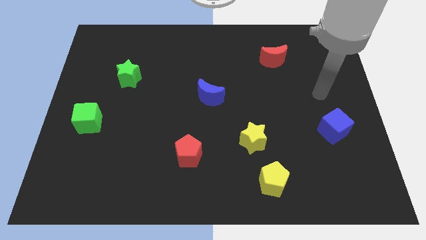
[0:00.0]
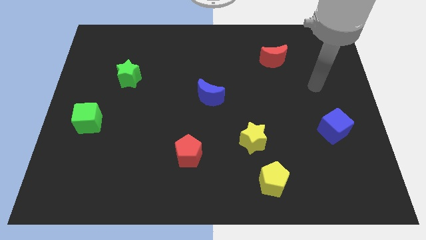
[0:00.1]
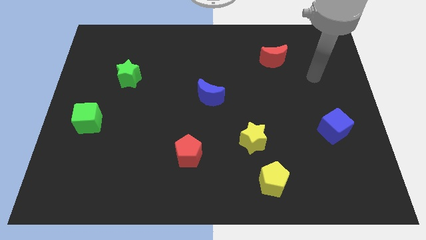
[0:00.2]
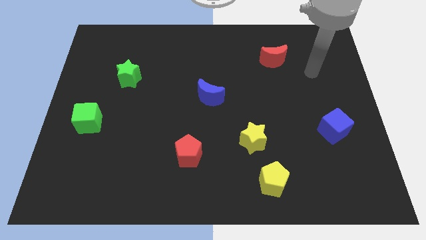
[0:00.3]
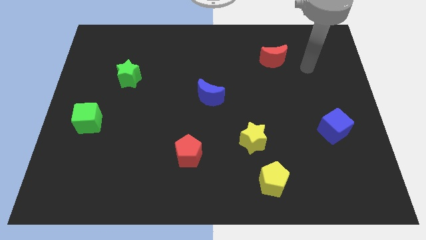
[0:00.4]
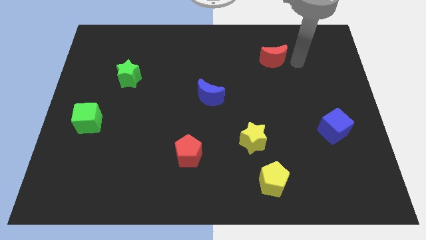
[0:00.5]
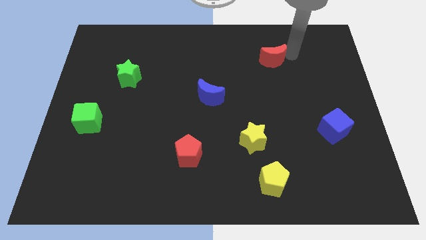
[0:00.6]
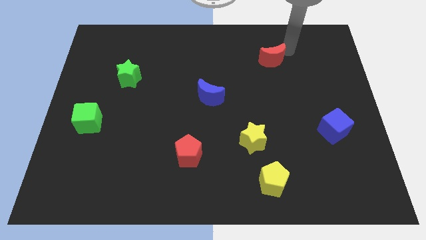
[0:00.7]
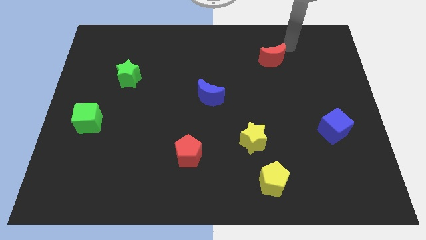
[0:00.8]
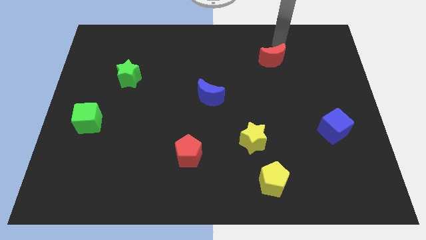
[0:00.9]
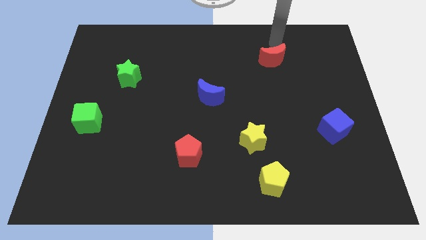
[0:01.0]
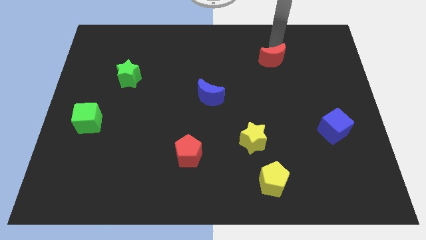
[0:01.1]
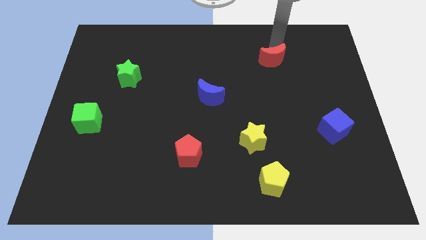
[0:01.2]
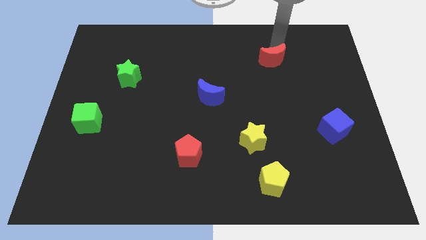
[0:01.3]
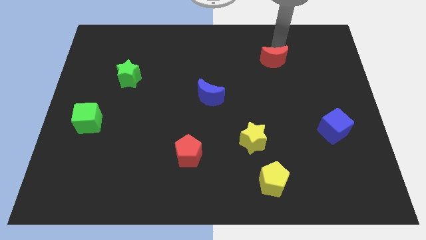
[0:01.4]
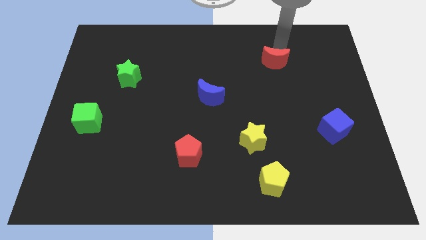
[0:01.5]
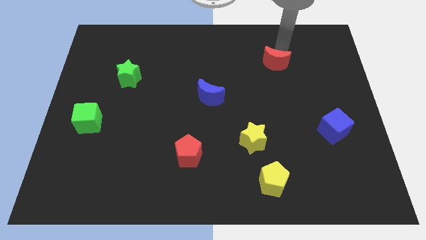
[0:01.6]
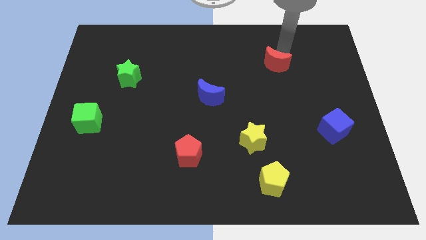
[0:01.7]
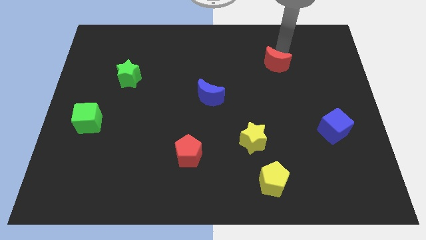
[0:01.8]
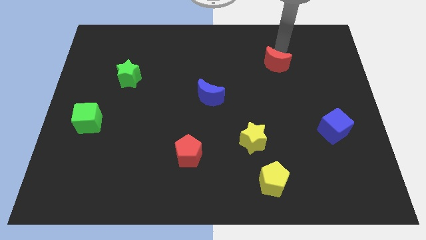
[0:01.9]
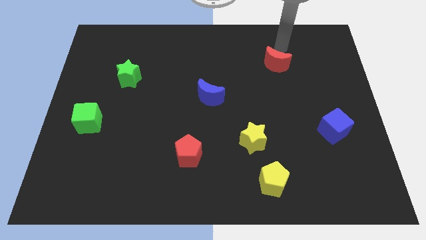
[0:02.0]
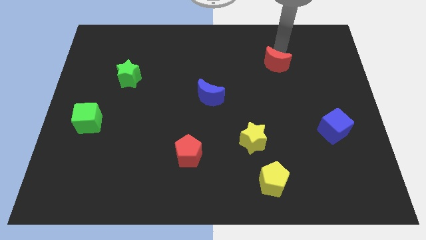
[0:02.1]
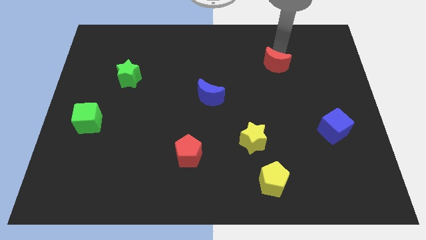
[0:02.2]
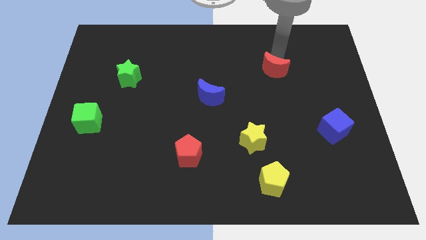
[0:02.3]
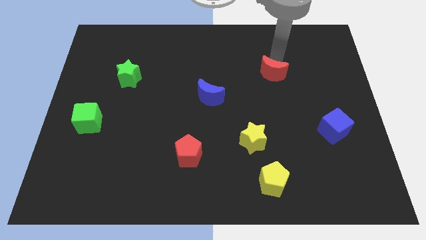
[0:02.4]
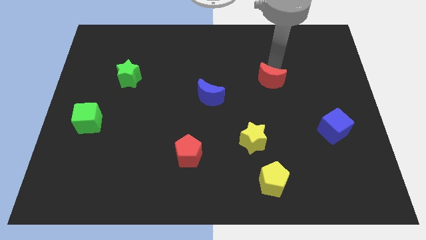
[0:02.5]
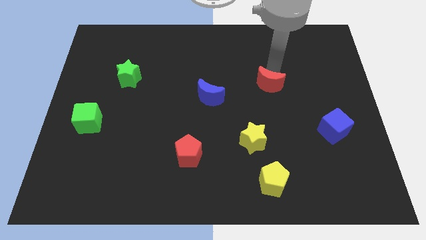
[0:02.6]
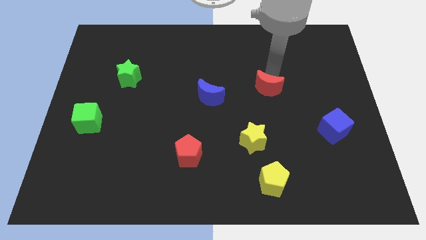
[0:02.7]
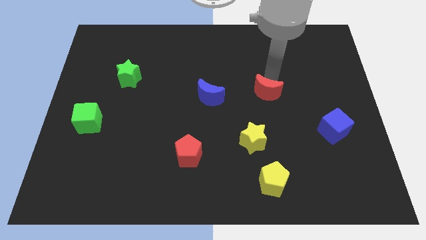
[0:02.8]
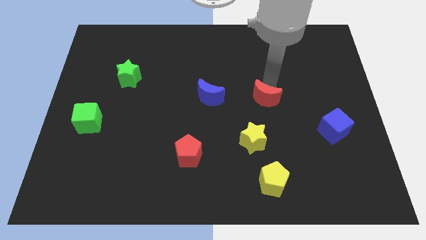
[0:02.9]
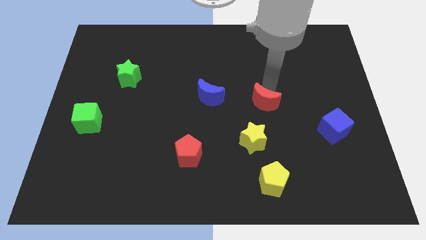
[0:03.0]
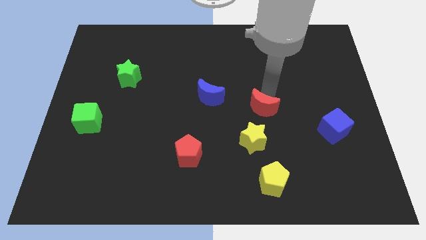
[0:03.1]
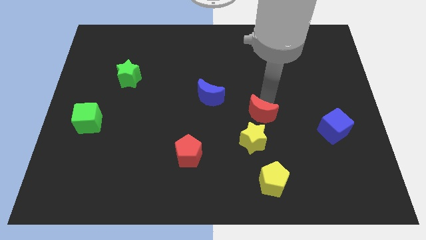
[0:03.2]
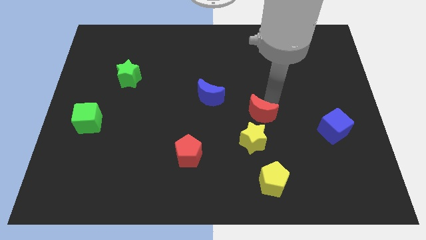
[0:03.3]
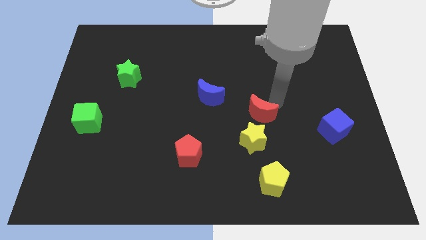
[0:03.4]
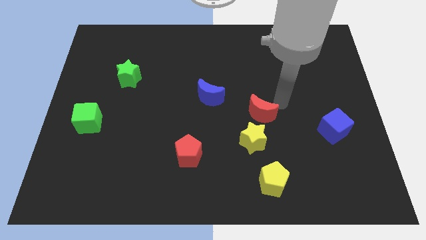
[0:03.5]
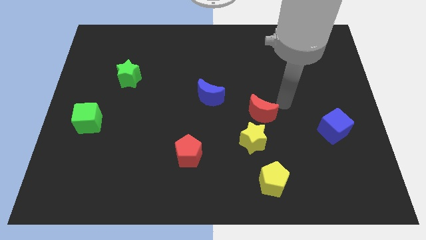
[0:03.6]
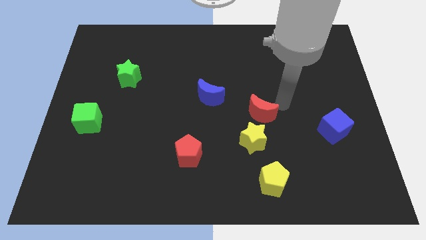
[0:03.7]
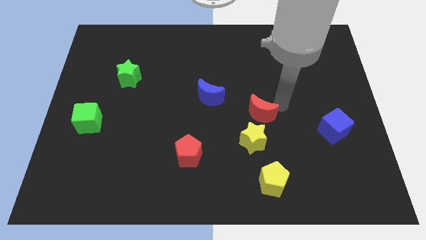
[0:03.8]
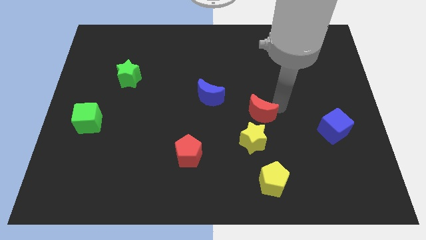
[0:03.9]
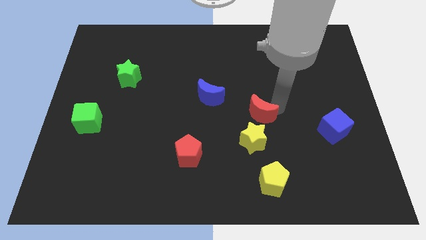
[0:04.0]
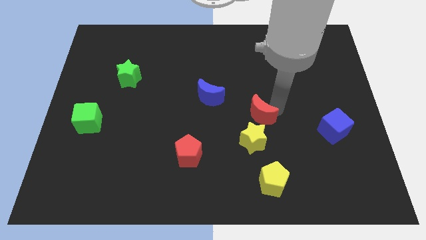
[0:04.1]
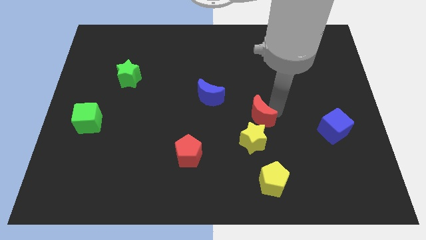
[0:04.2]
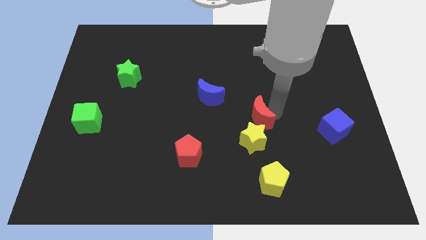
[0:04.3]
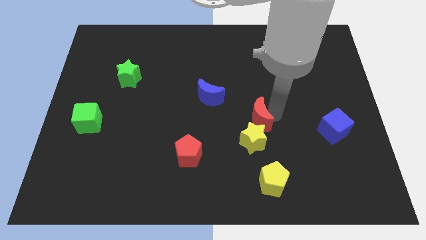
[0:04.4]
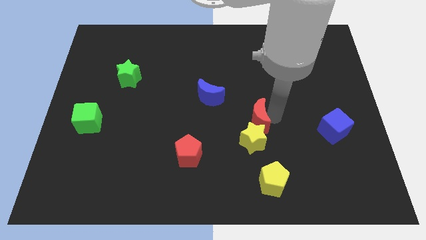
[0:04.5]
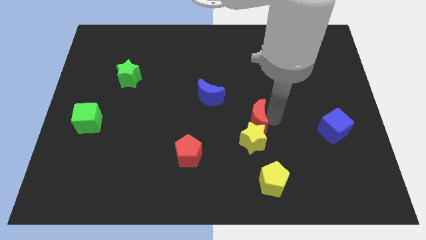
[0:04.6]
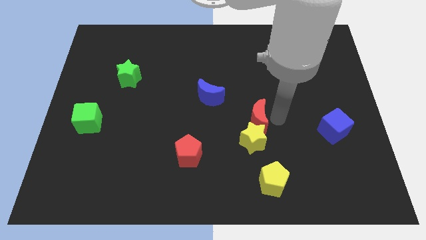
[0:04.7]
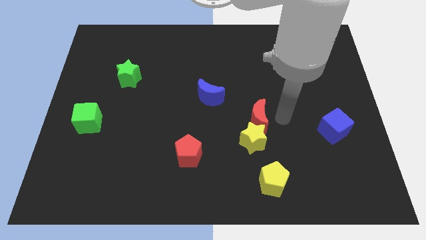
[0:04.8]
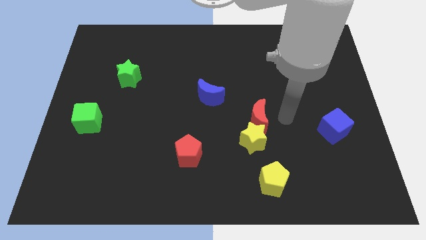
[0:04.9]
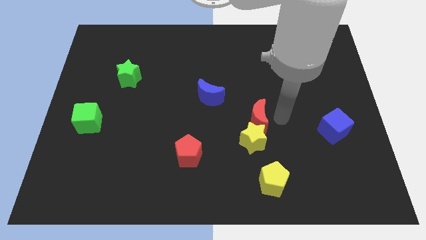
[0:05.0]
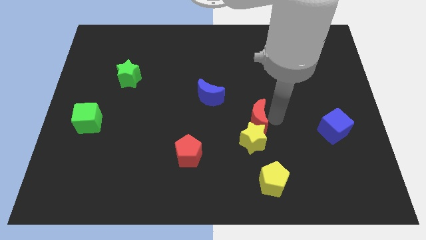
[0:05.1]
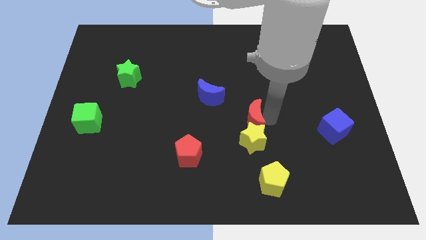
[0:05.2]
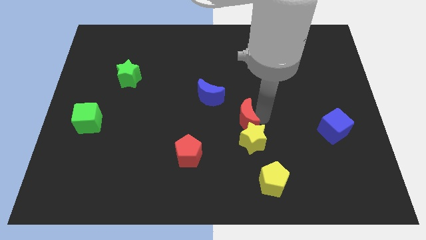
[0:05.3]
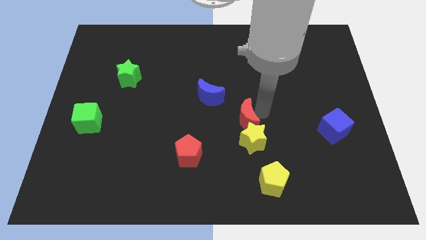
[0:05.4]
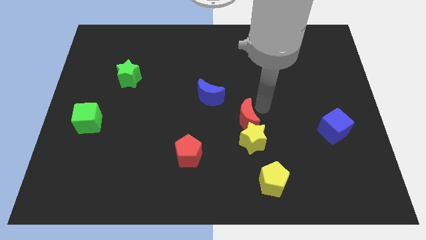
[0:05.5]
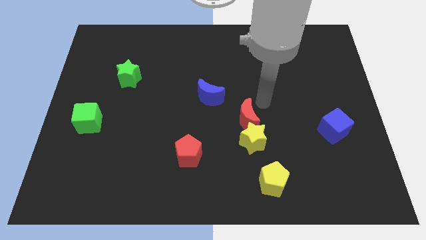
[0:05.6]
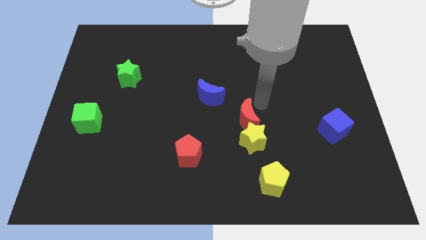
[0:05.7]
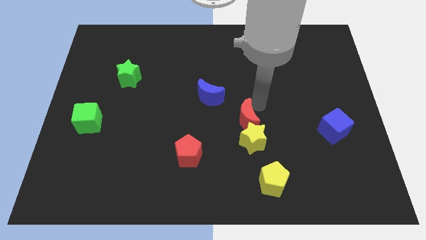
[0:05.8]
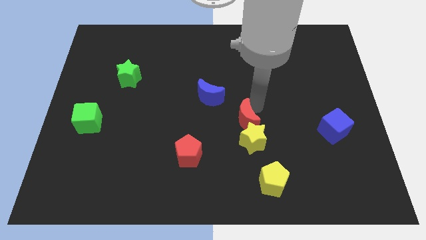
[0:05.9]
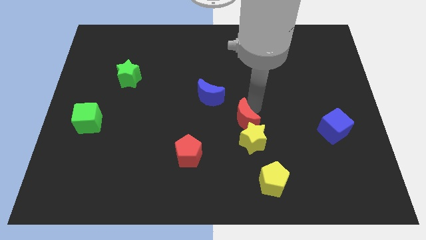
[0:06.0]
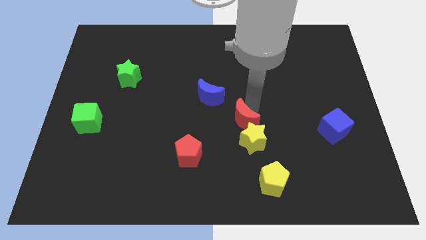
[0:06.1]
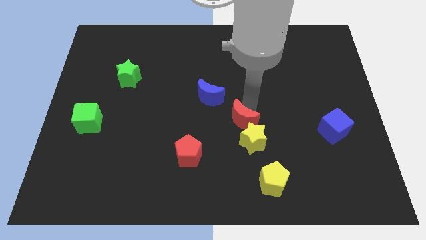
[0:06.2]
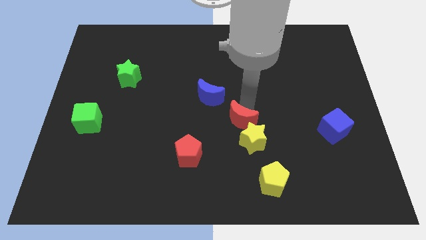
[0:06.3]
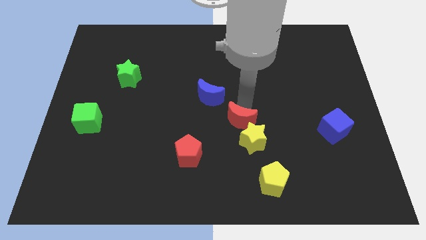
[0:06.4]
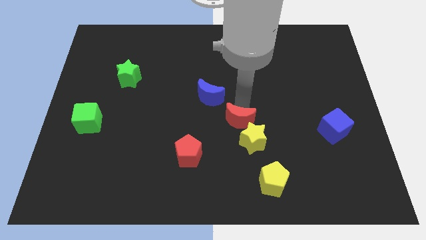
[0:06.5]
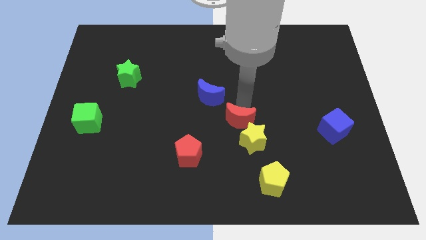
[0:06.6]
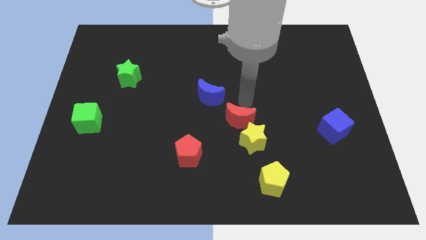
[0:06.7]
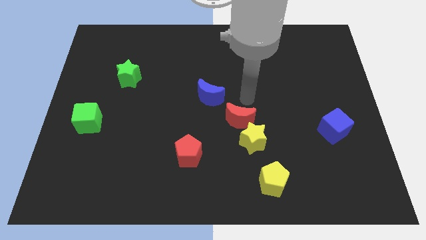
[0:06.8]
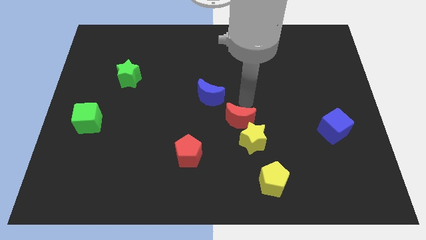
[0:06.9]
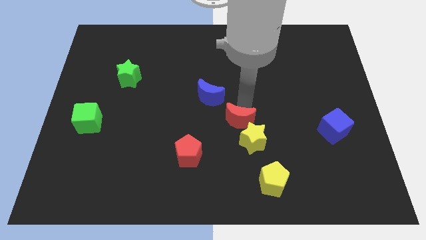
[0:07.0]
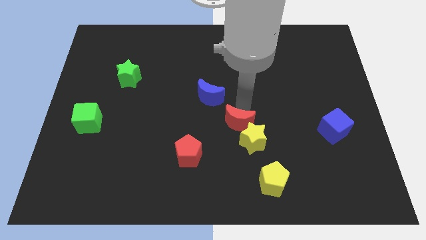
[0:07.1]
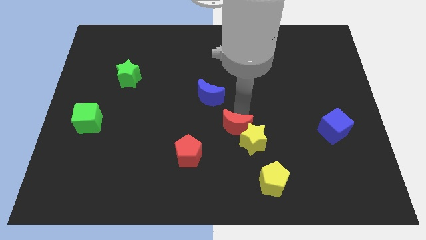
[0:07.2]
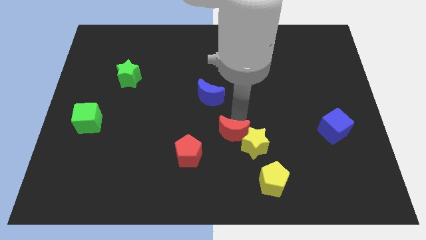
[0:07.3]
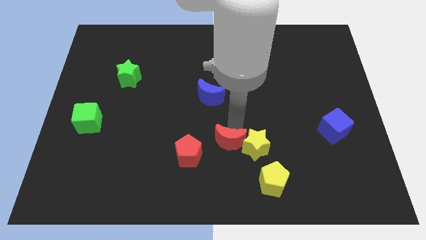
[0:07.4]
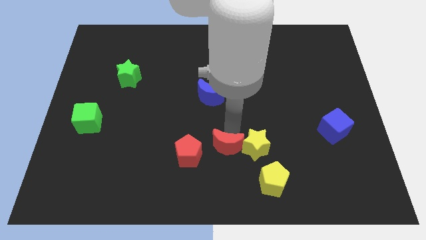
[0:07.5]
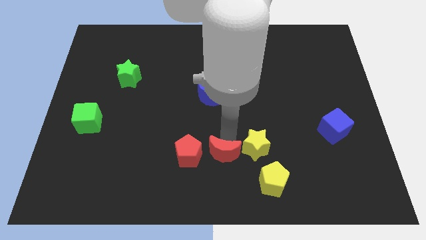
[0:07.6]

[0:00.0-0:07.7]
move the red moon to the bottom side

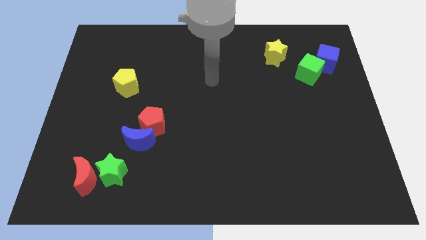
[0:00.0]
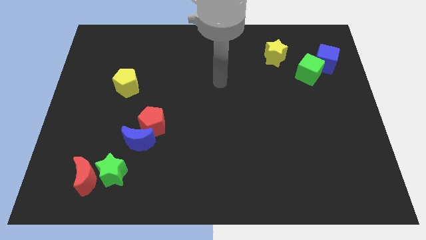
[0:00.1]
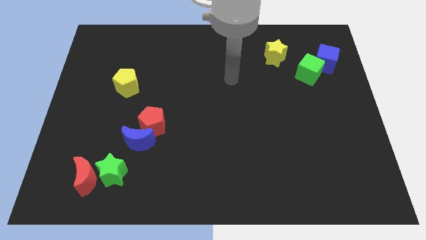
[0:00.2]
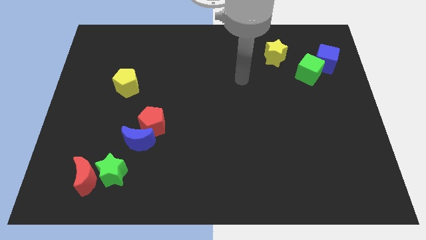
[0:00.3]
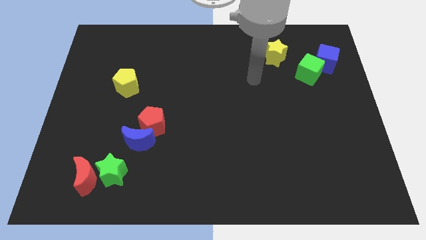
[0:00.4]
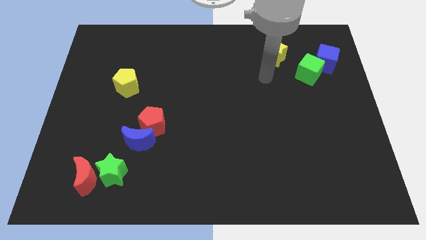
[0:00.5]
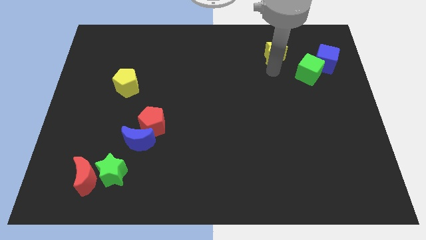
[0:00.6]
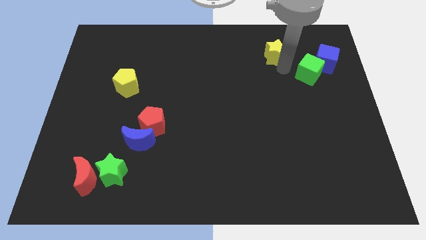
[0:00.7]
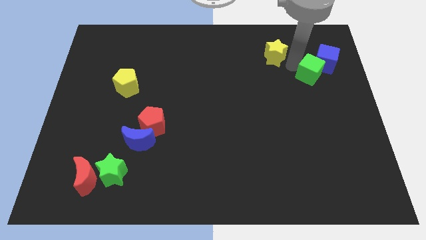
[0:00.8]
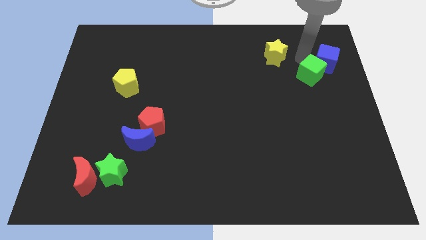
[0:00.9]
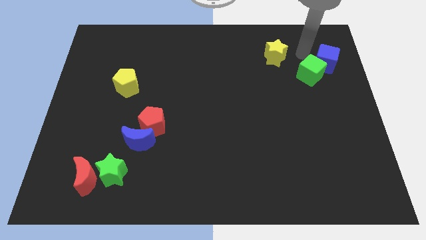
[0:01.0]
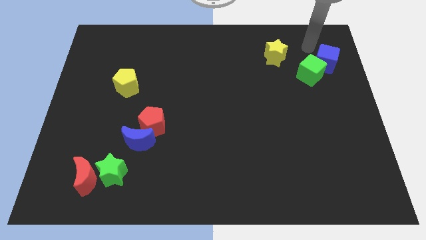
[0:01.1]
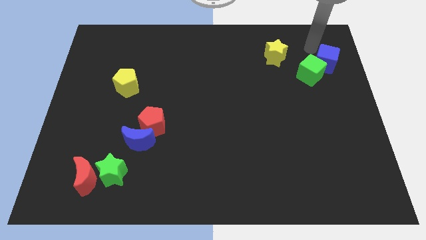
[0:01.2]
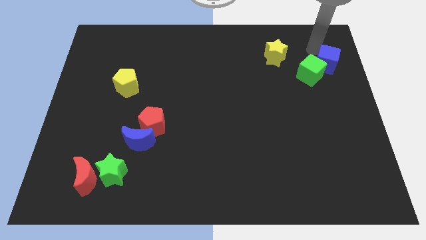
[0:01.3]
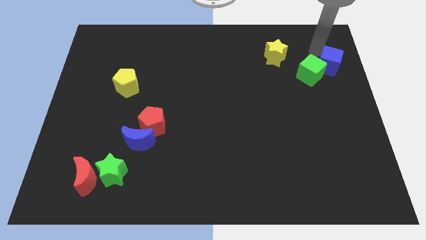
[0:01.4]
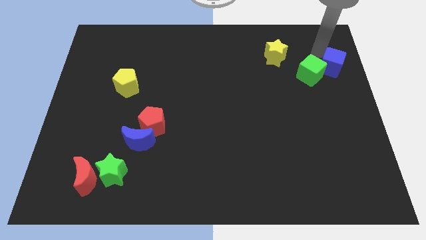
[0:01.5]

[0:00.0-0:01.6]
move the blue cube to the right side of the board
